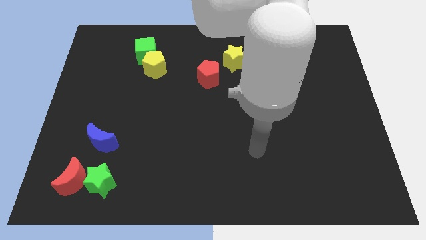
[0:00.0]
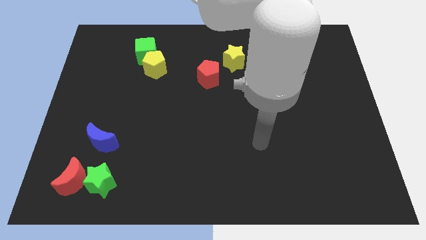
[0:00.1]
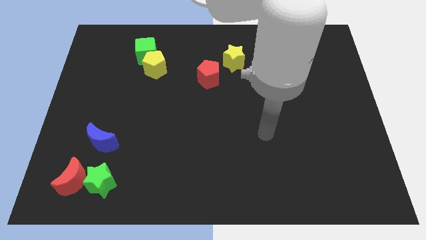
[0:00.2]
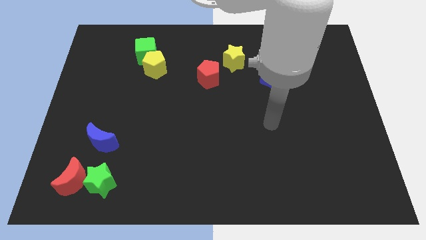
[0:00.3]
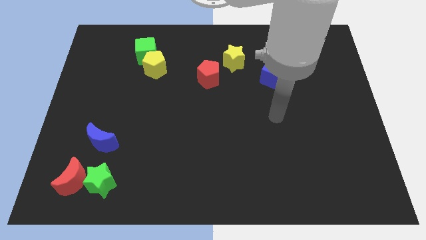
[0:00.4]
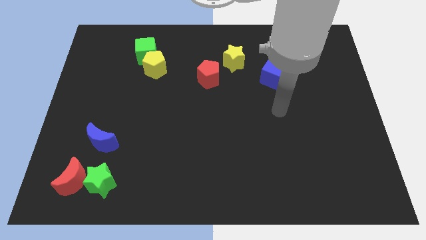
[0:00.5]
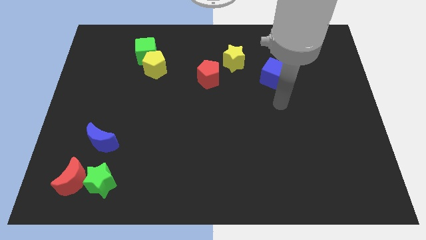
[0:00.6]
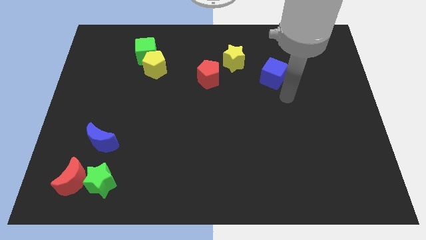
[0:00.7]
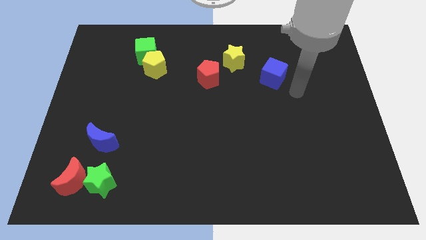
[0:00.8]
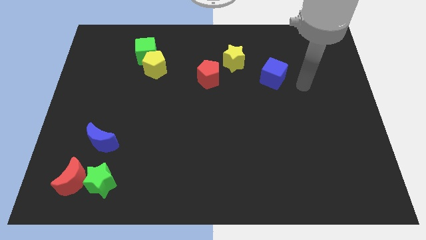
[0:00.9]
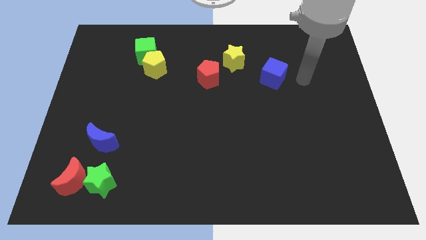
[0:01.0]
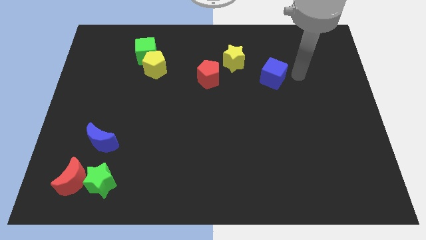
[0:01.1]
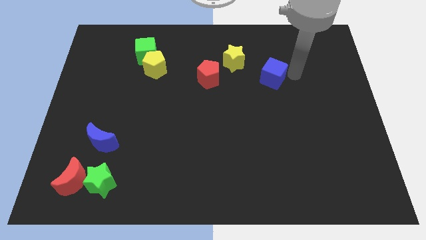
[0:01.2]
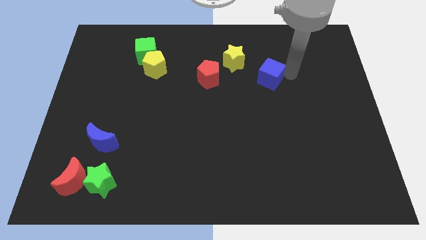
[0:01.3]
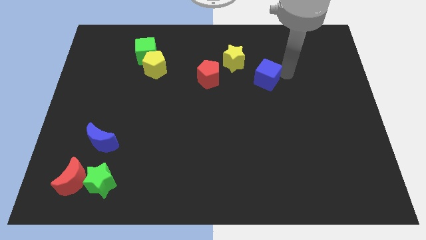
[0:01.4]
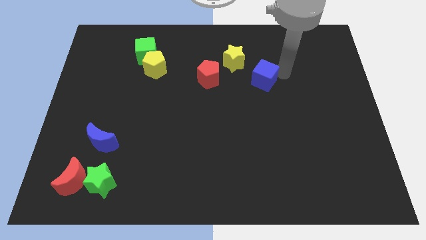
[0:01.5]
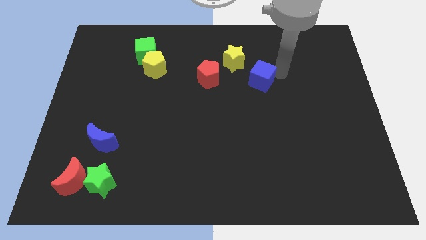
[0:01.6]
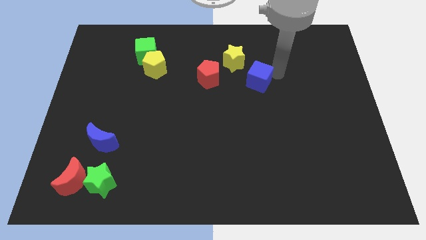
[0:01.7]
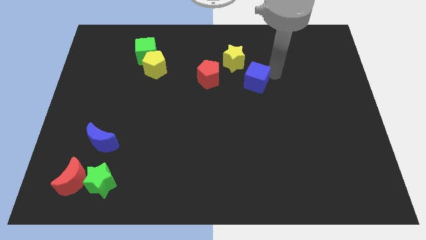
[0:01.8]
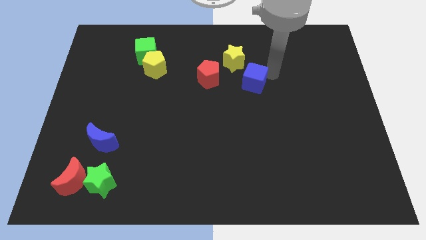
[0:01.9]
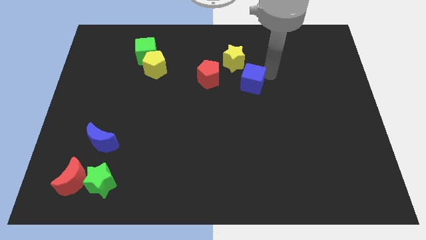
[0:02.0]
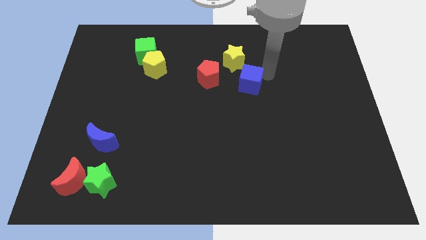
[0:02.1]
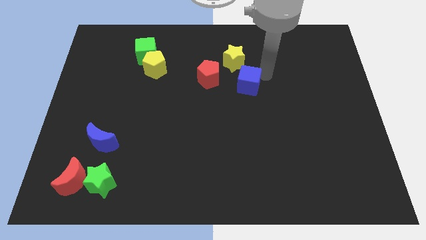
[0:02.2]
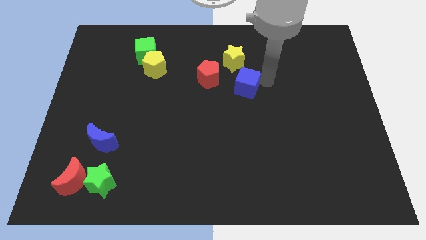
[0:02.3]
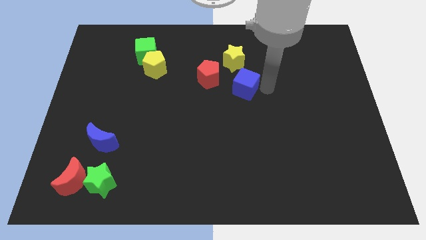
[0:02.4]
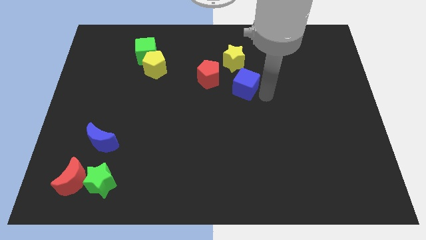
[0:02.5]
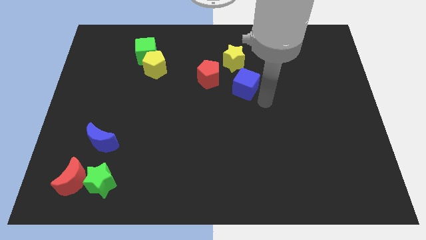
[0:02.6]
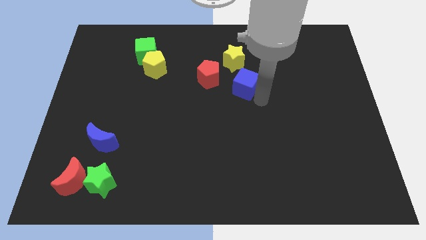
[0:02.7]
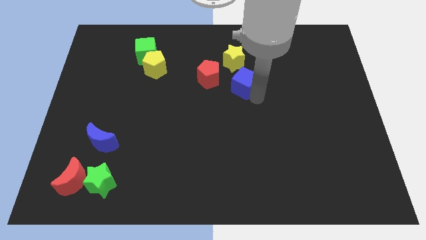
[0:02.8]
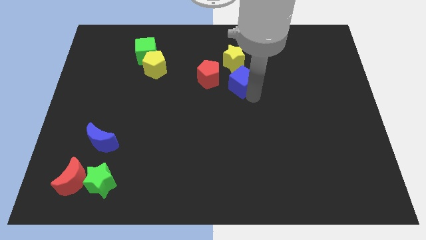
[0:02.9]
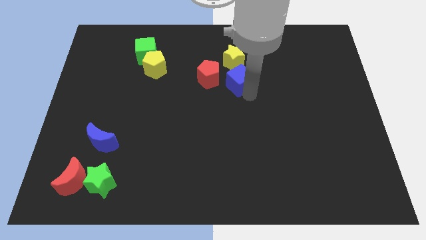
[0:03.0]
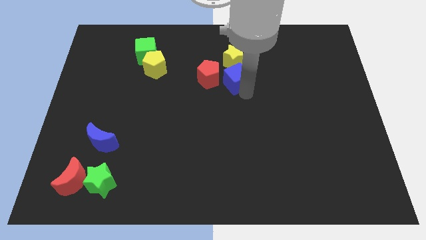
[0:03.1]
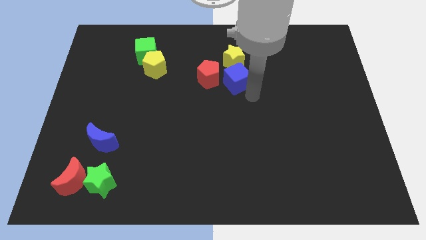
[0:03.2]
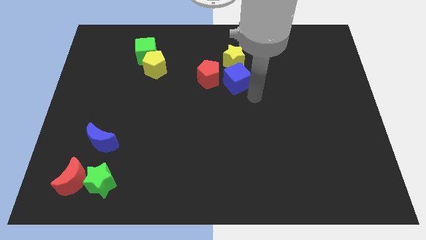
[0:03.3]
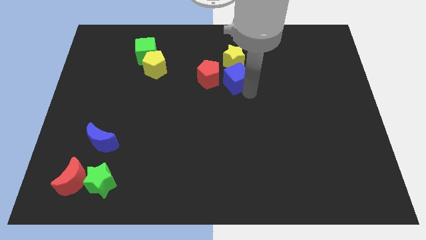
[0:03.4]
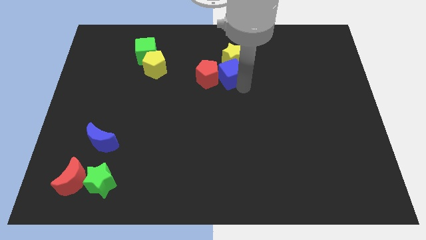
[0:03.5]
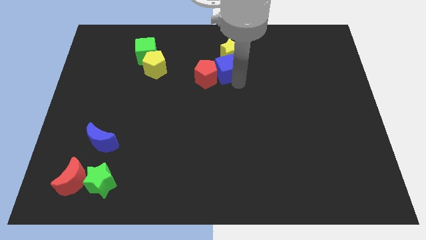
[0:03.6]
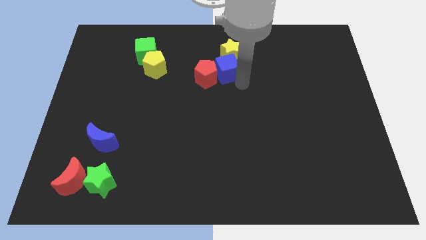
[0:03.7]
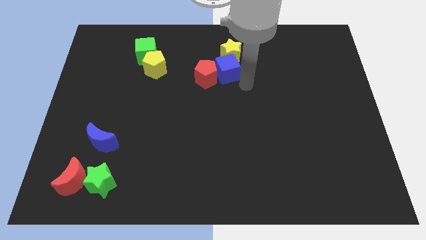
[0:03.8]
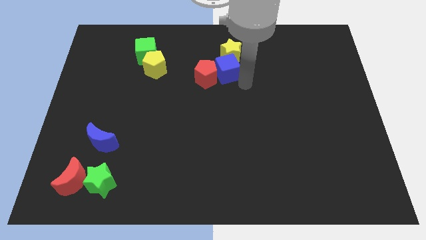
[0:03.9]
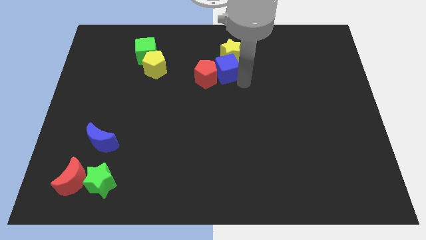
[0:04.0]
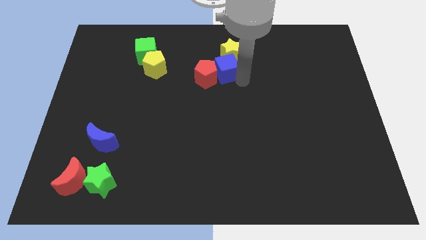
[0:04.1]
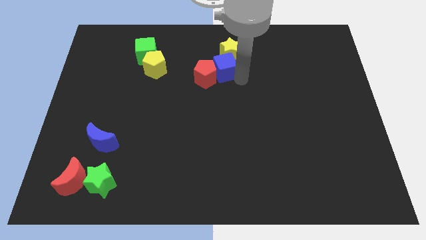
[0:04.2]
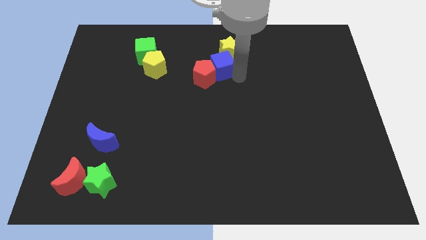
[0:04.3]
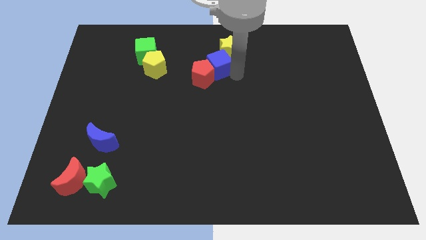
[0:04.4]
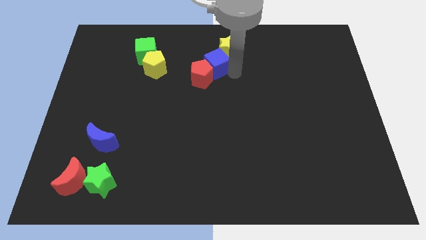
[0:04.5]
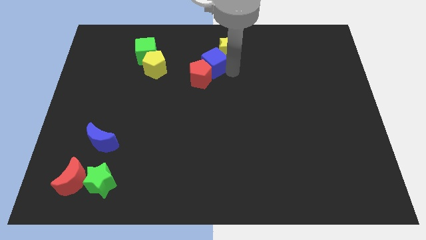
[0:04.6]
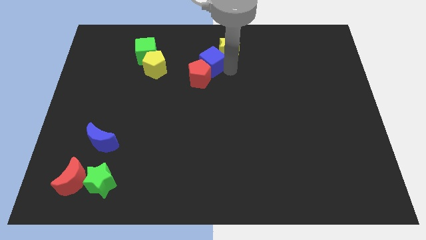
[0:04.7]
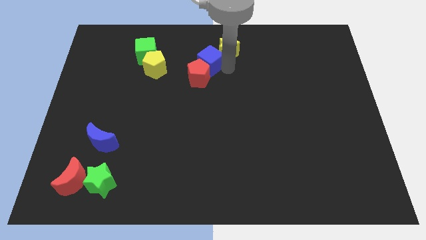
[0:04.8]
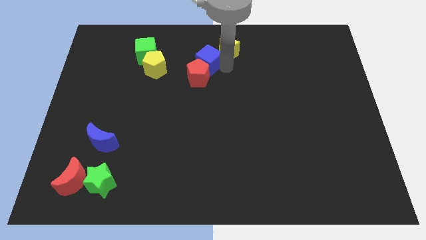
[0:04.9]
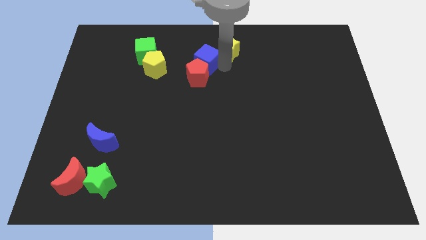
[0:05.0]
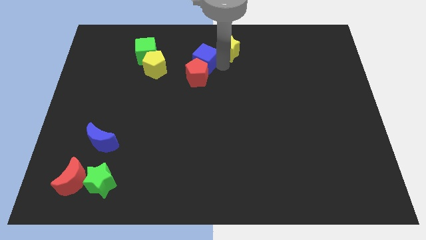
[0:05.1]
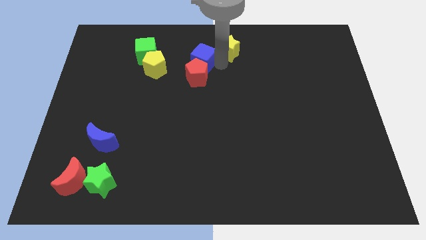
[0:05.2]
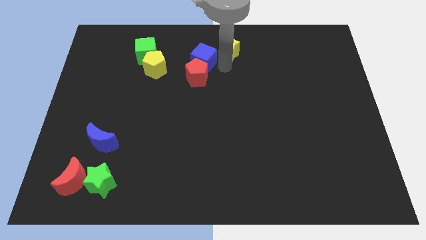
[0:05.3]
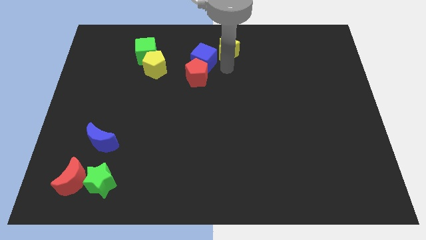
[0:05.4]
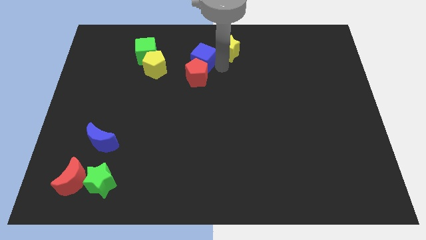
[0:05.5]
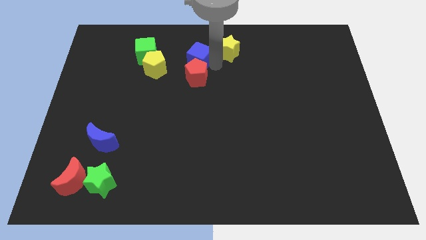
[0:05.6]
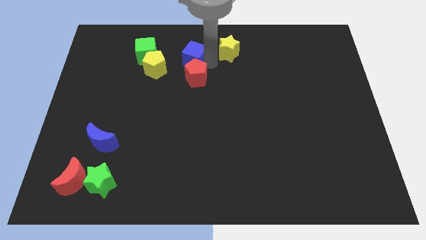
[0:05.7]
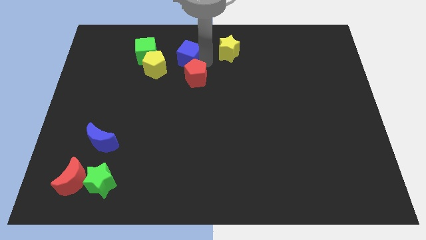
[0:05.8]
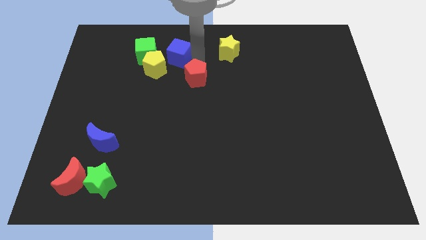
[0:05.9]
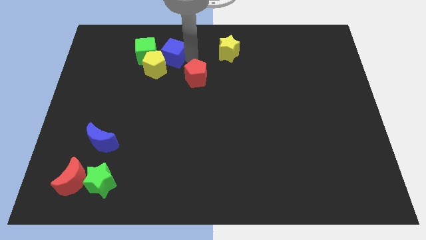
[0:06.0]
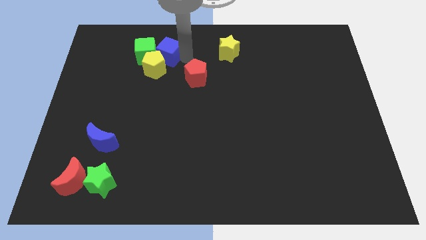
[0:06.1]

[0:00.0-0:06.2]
move the blue cube next to the green cube

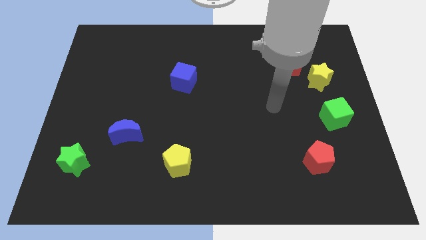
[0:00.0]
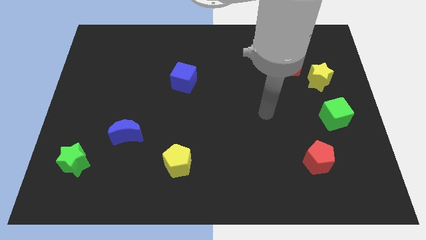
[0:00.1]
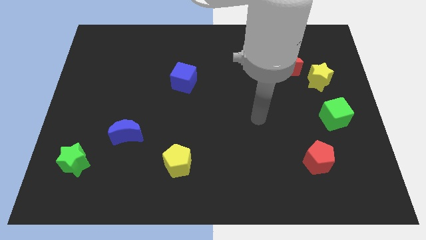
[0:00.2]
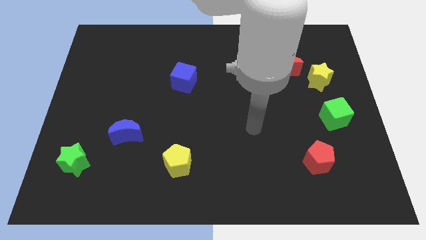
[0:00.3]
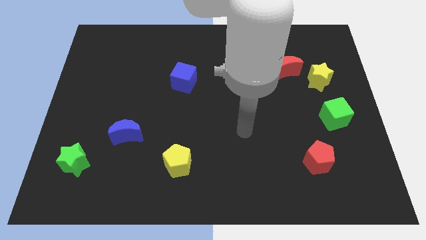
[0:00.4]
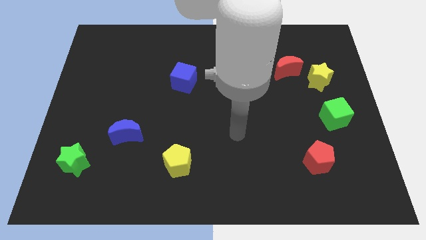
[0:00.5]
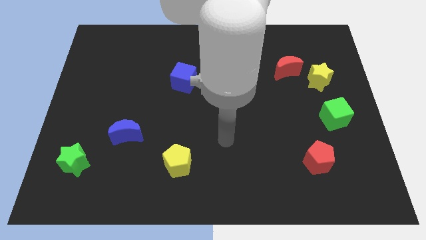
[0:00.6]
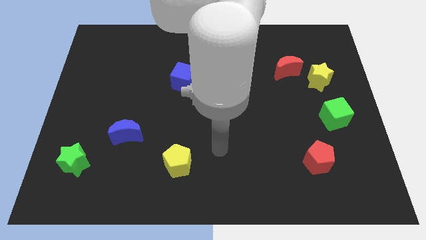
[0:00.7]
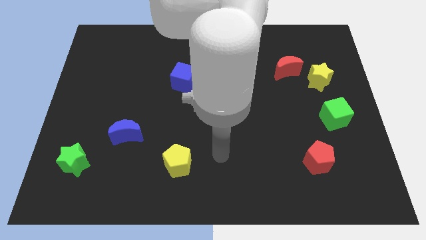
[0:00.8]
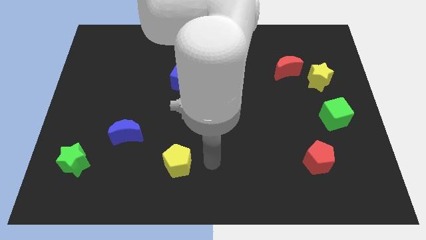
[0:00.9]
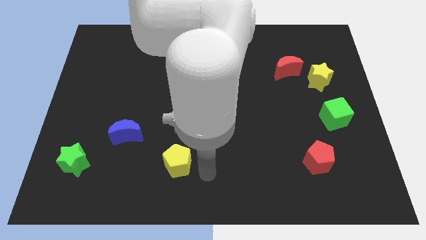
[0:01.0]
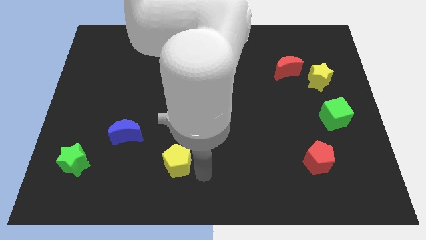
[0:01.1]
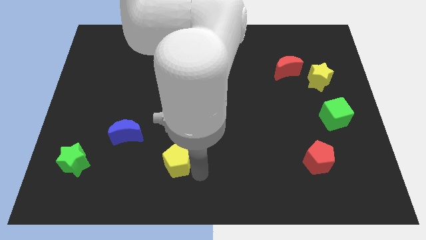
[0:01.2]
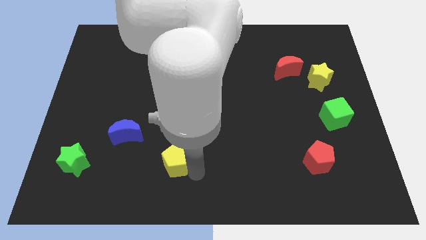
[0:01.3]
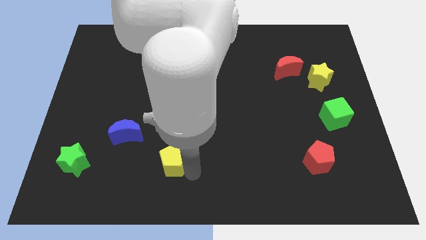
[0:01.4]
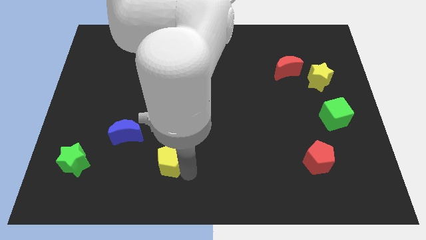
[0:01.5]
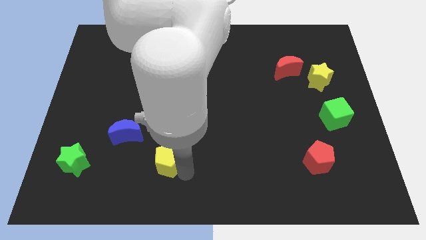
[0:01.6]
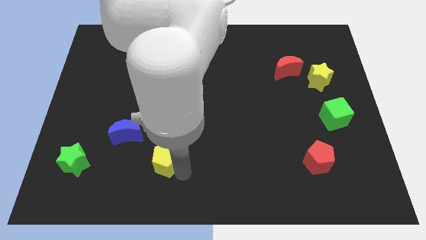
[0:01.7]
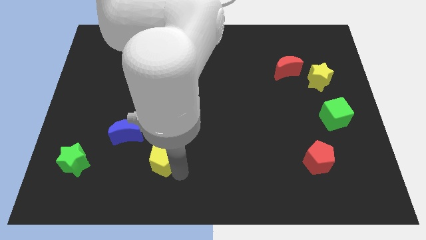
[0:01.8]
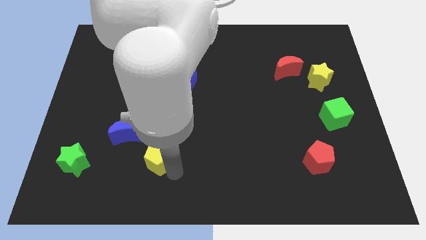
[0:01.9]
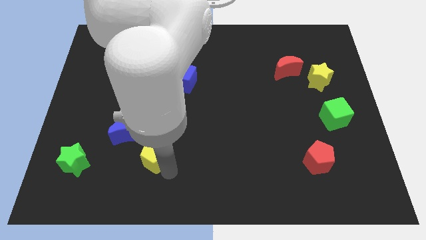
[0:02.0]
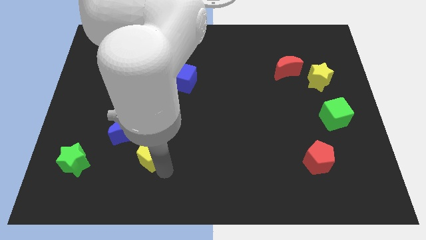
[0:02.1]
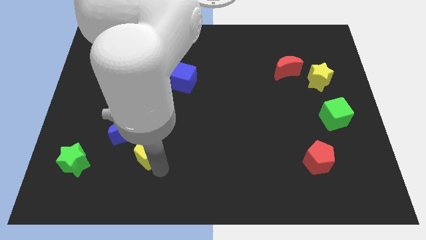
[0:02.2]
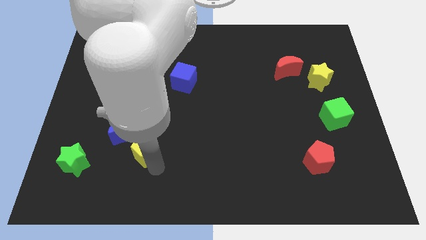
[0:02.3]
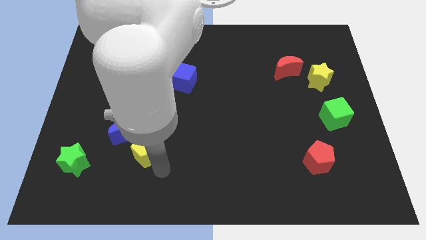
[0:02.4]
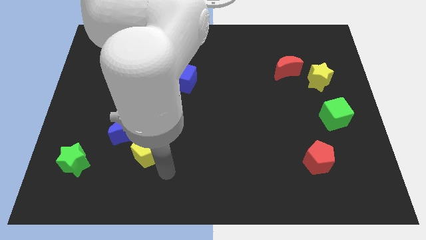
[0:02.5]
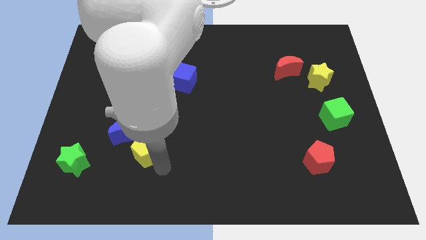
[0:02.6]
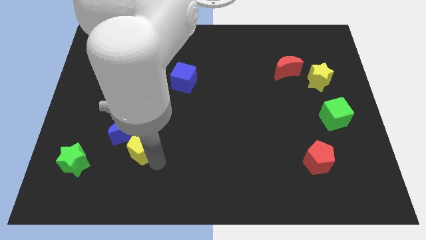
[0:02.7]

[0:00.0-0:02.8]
slide the yellow pentagon towards the blue moon
